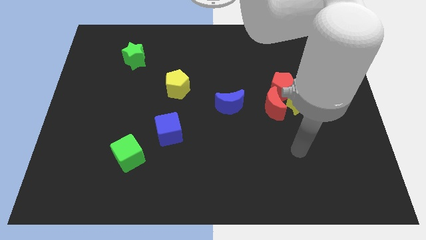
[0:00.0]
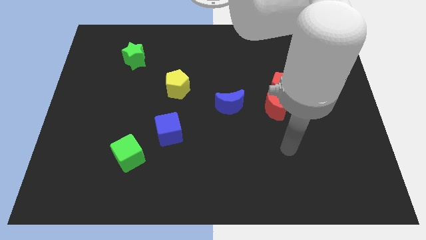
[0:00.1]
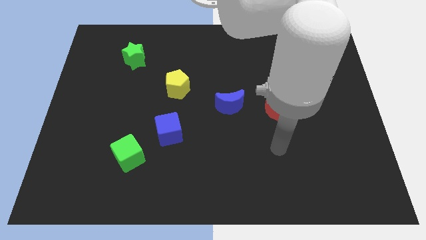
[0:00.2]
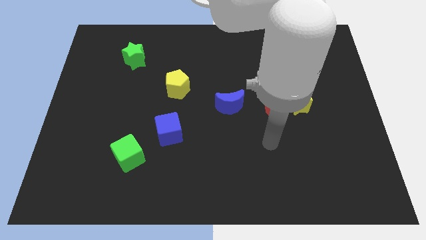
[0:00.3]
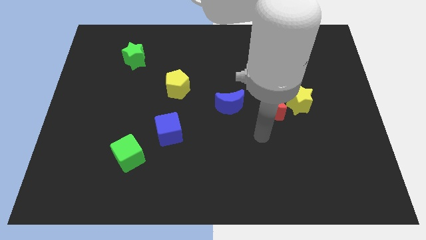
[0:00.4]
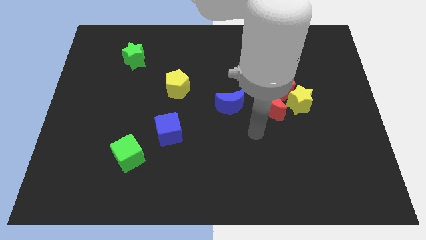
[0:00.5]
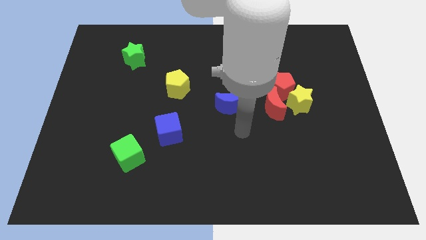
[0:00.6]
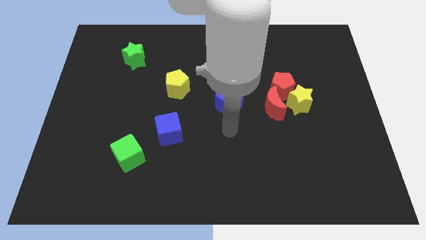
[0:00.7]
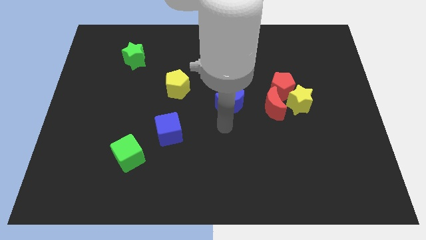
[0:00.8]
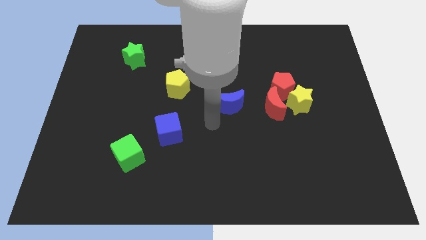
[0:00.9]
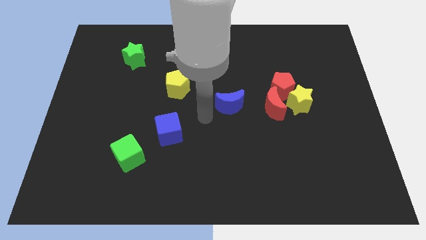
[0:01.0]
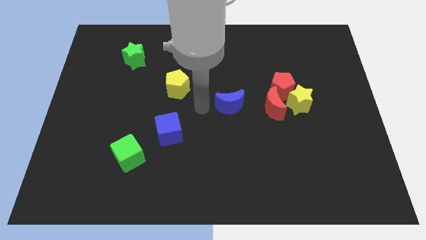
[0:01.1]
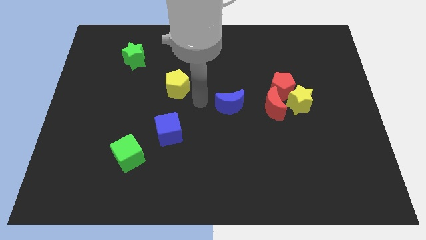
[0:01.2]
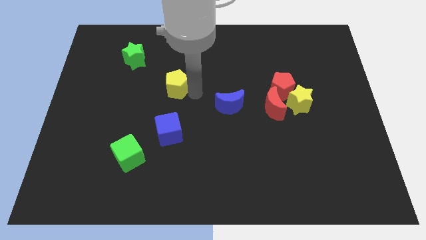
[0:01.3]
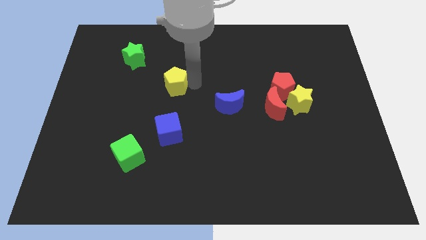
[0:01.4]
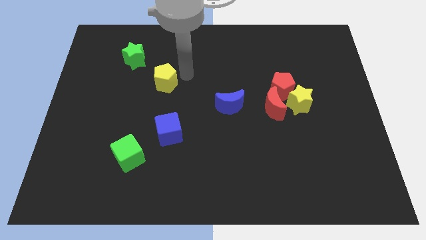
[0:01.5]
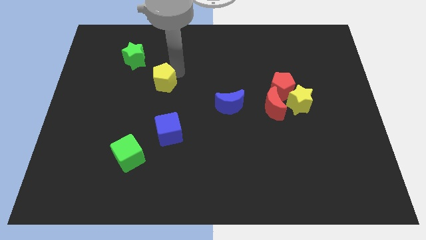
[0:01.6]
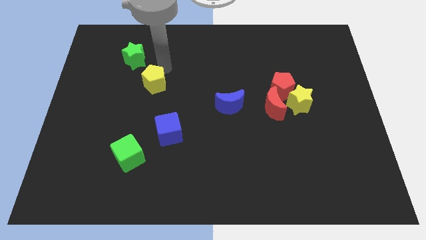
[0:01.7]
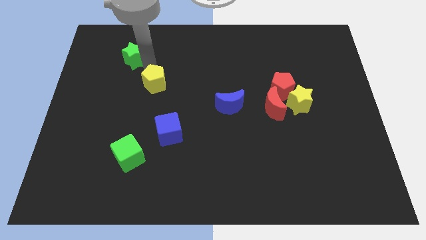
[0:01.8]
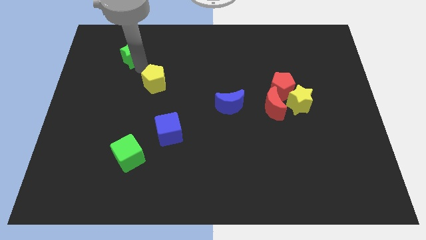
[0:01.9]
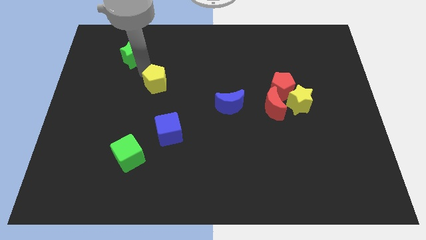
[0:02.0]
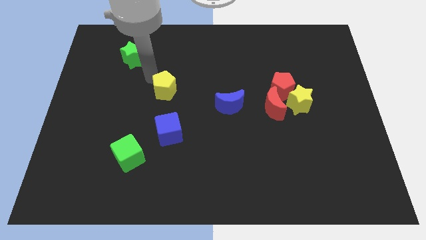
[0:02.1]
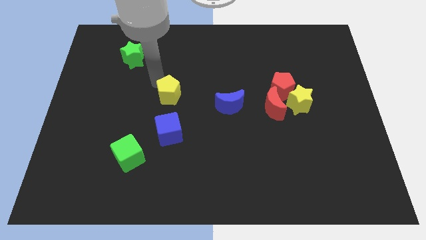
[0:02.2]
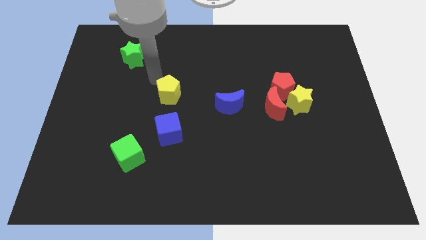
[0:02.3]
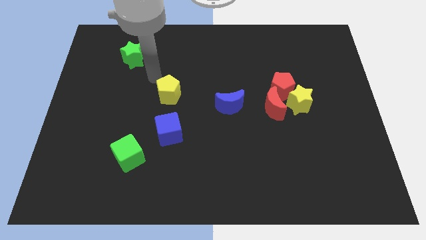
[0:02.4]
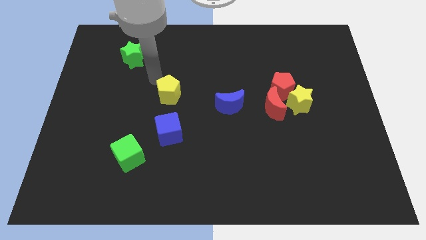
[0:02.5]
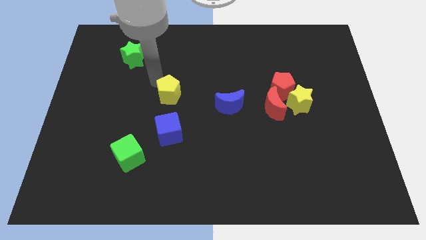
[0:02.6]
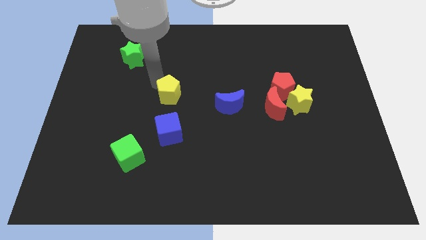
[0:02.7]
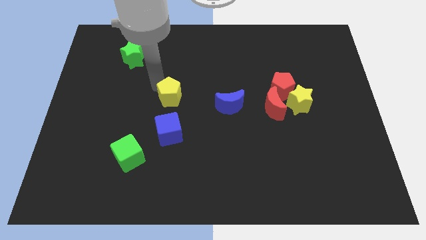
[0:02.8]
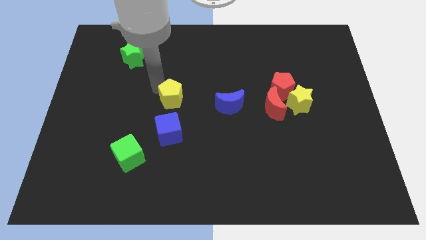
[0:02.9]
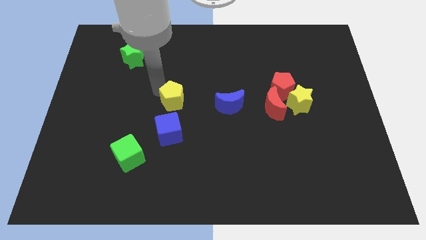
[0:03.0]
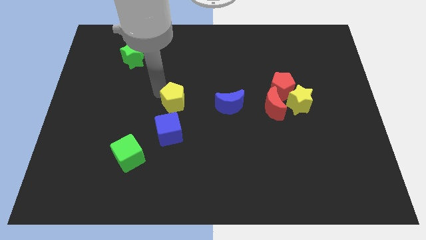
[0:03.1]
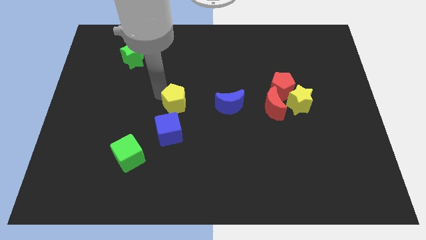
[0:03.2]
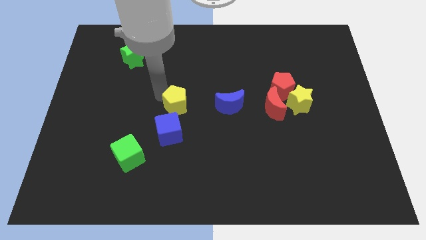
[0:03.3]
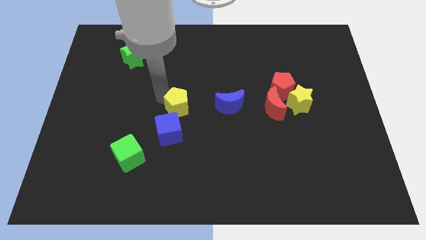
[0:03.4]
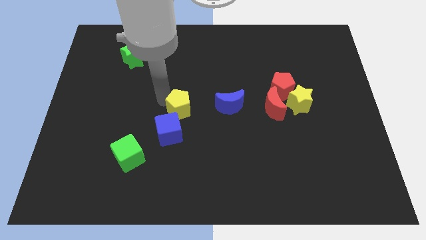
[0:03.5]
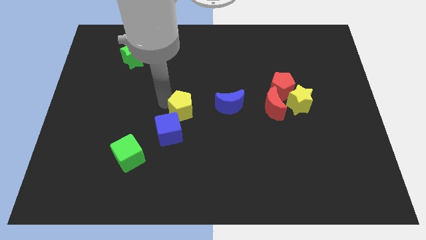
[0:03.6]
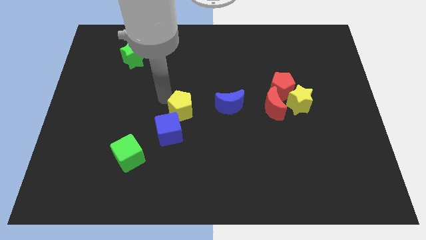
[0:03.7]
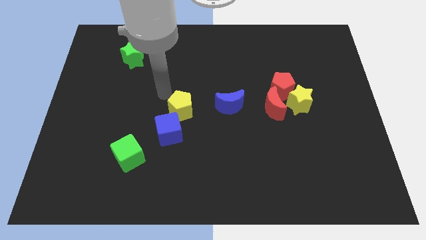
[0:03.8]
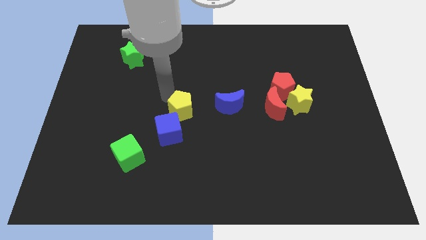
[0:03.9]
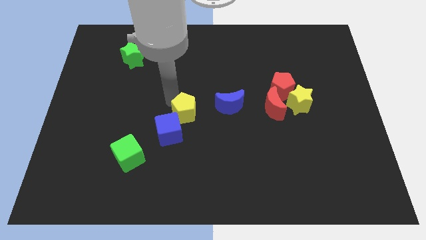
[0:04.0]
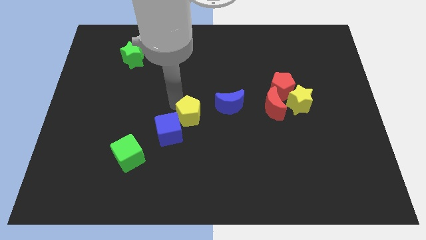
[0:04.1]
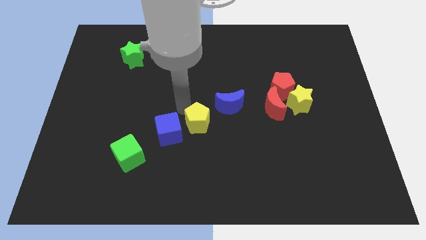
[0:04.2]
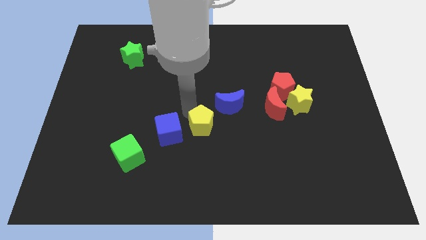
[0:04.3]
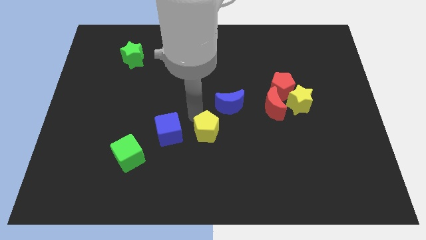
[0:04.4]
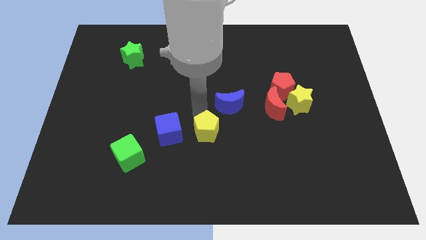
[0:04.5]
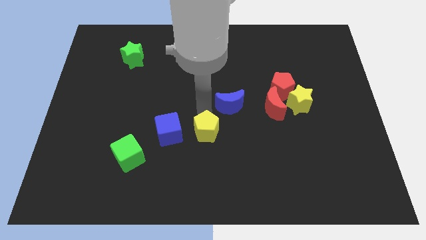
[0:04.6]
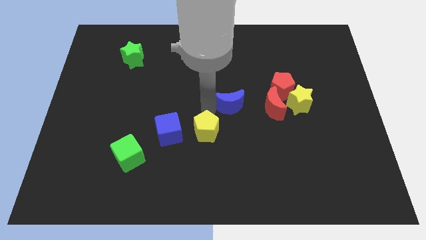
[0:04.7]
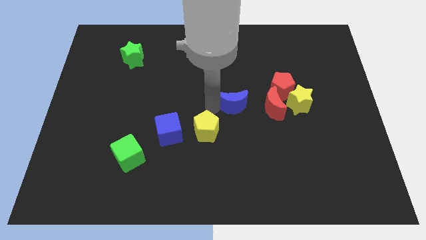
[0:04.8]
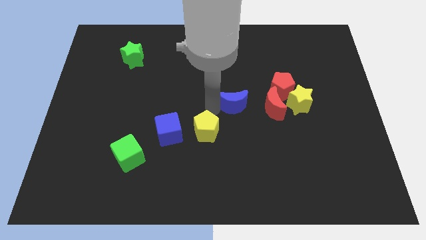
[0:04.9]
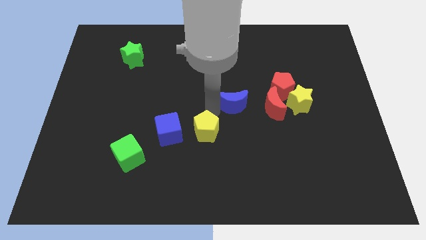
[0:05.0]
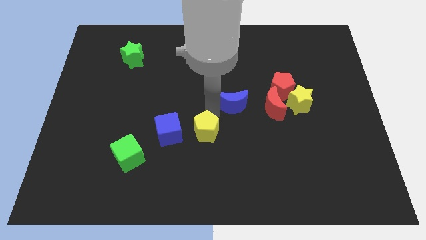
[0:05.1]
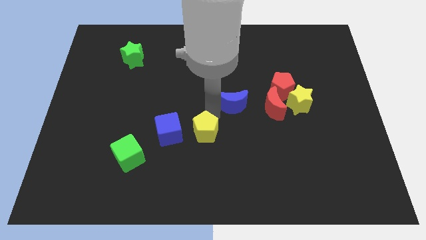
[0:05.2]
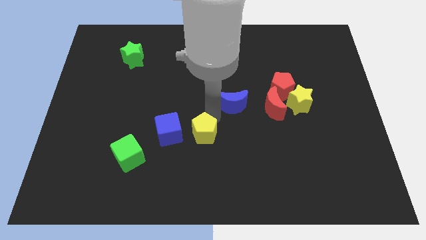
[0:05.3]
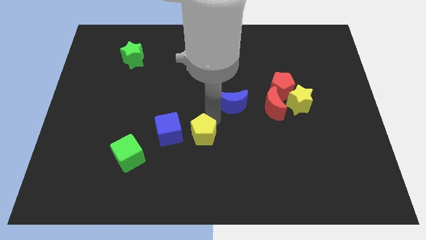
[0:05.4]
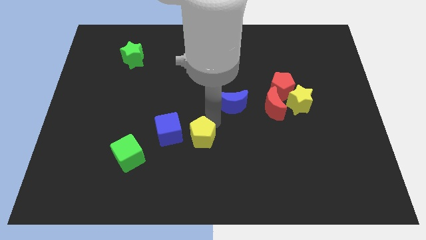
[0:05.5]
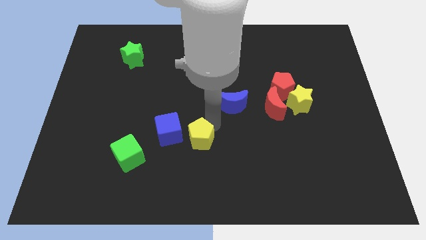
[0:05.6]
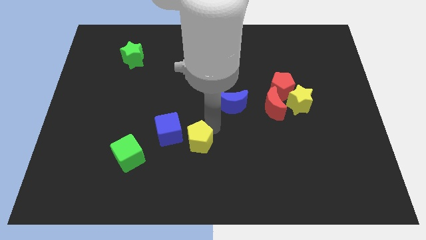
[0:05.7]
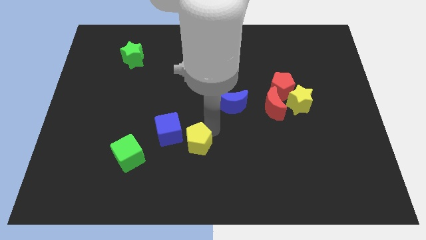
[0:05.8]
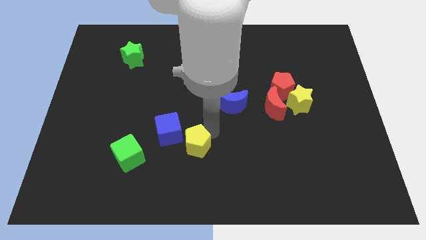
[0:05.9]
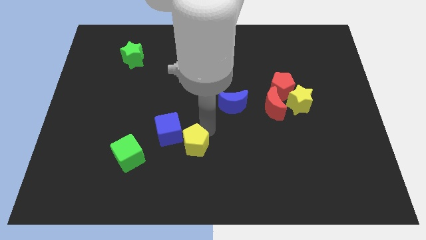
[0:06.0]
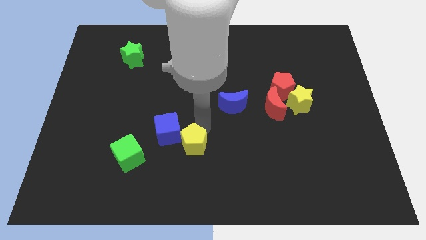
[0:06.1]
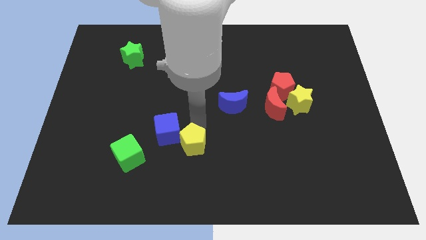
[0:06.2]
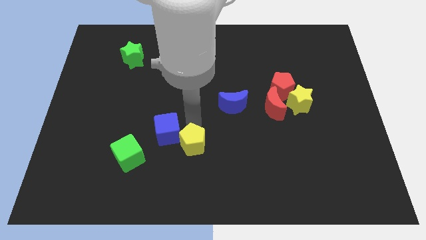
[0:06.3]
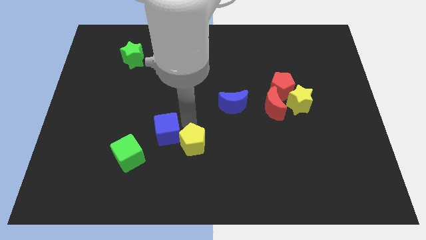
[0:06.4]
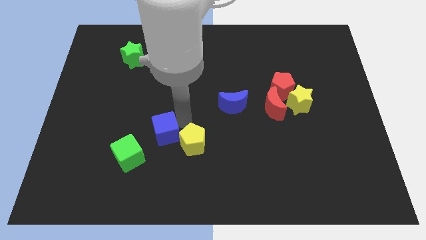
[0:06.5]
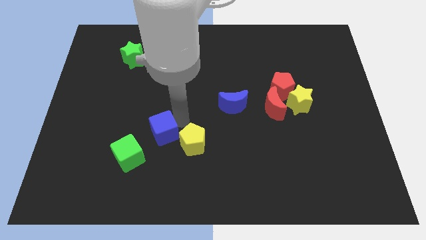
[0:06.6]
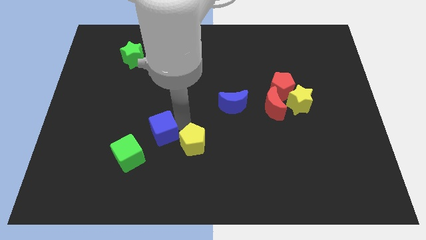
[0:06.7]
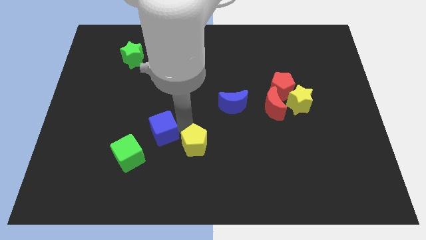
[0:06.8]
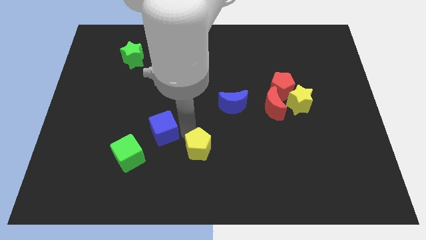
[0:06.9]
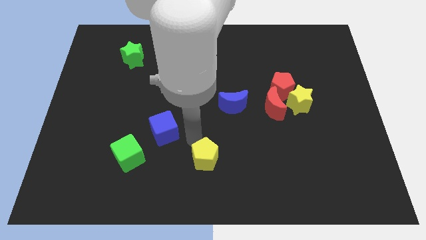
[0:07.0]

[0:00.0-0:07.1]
put the yellow pentagon to the bottom
